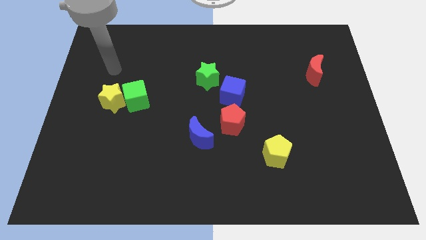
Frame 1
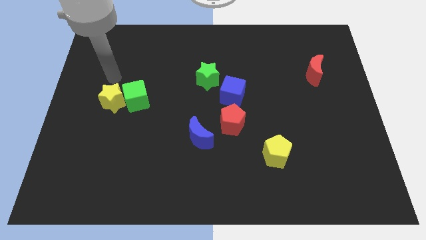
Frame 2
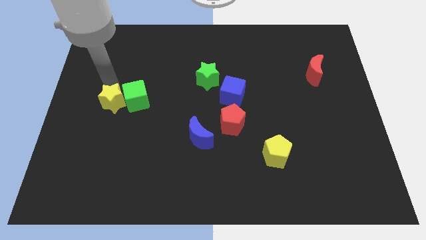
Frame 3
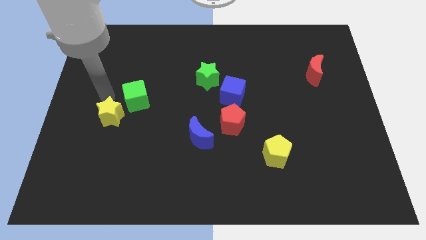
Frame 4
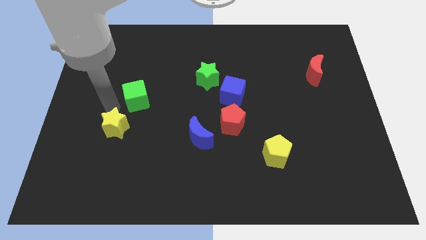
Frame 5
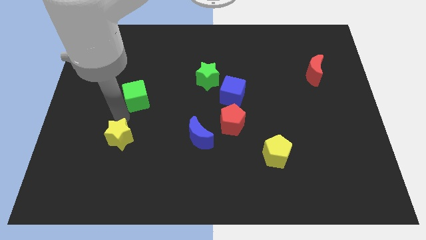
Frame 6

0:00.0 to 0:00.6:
pull the green cube apart from the yellow star

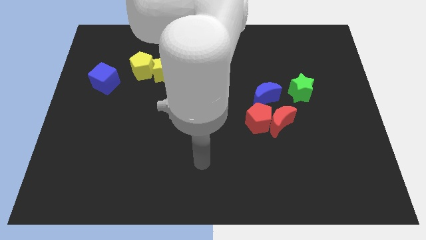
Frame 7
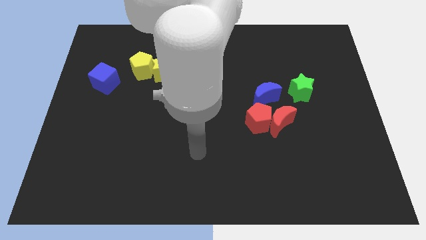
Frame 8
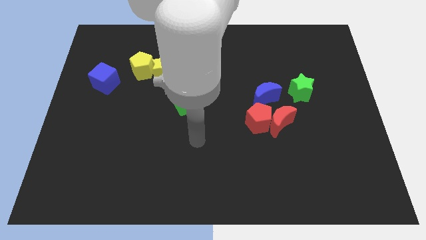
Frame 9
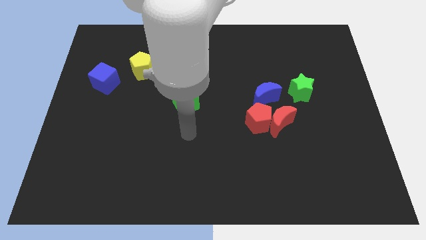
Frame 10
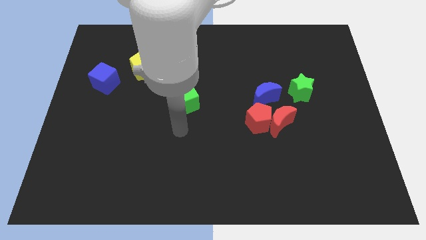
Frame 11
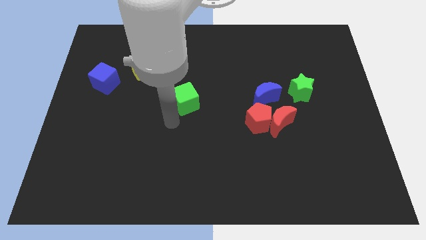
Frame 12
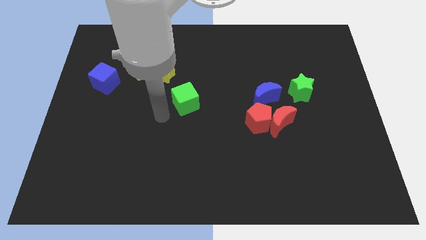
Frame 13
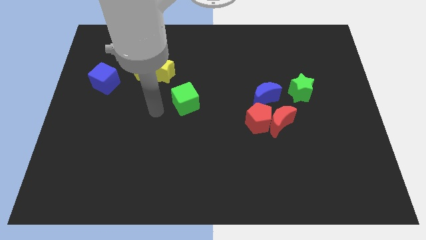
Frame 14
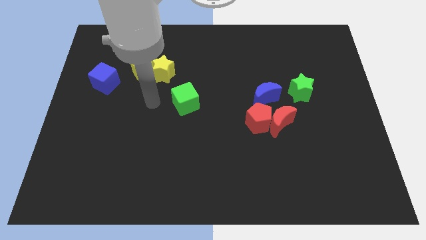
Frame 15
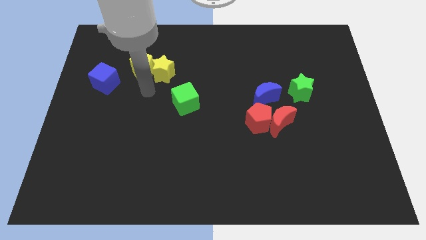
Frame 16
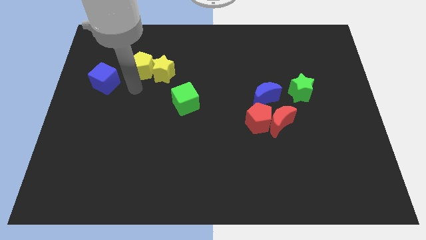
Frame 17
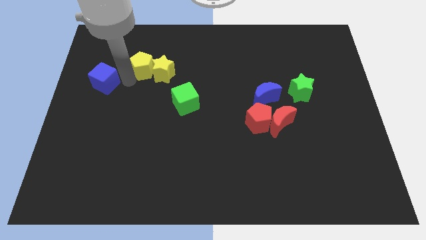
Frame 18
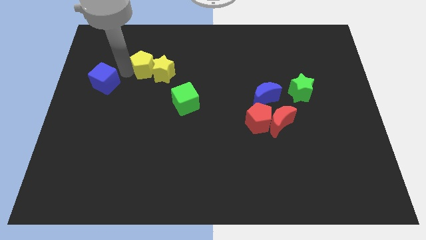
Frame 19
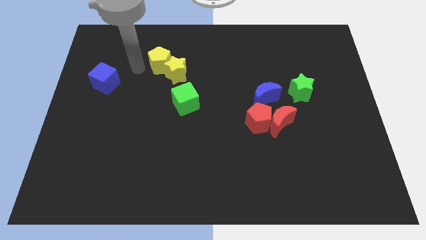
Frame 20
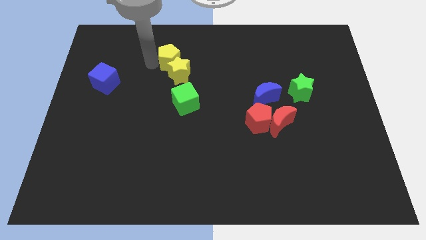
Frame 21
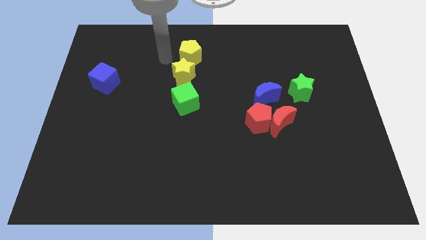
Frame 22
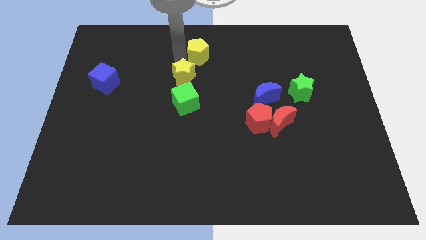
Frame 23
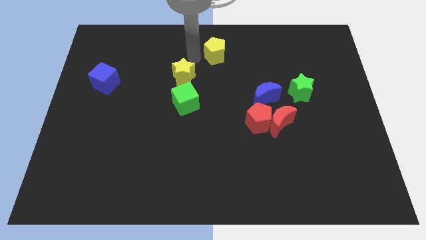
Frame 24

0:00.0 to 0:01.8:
separate the yellow star from the yellow pentagon

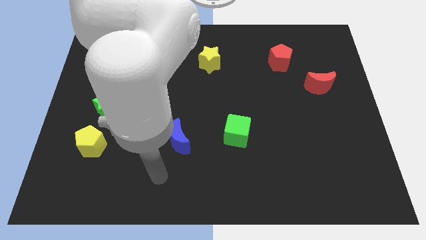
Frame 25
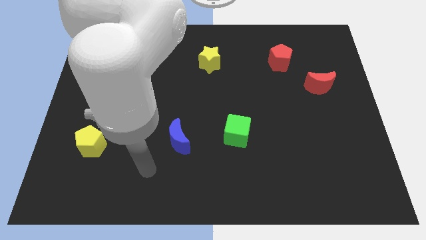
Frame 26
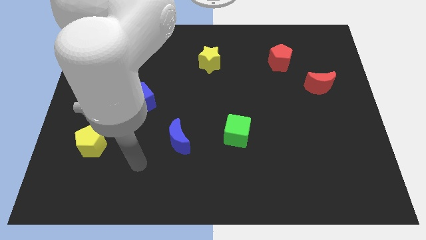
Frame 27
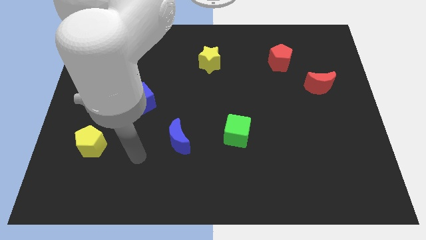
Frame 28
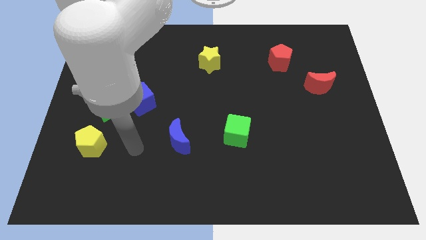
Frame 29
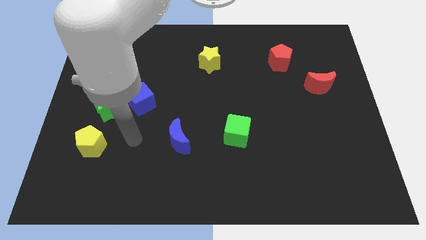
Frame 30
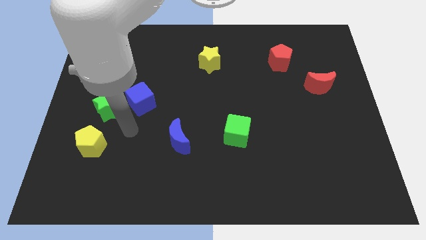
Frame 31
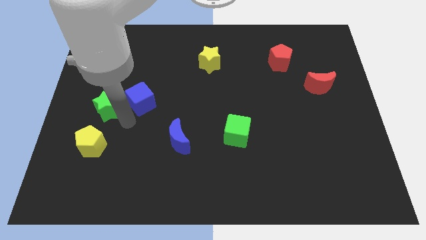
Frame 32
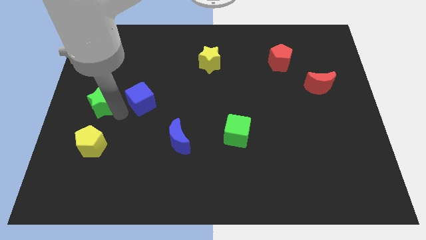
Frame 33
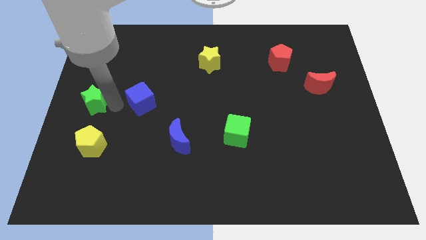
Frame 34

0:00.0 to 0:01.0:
pull the blue cube apart from the green star

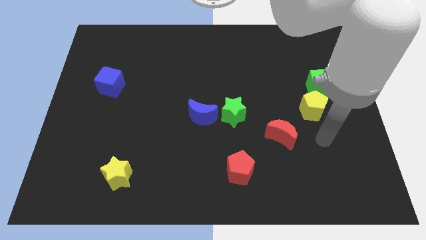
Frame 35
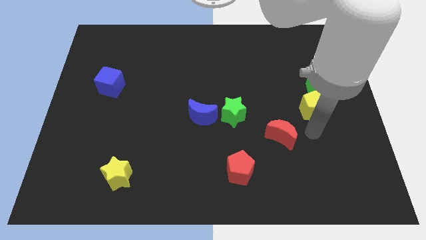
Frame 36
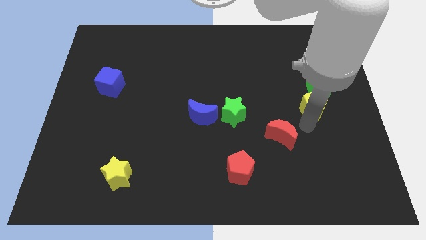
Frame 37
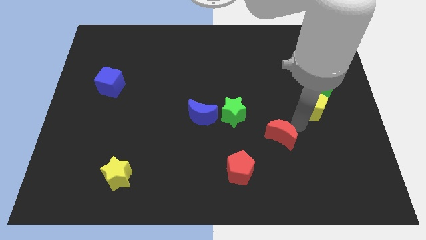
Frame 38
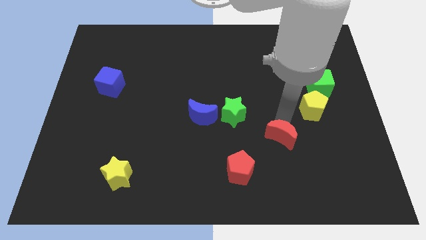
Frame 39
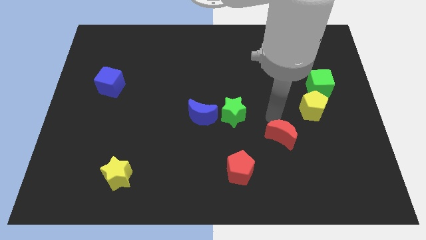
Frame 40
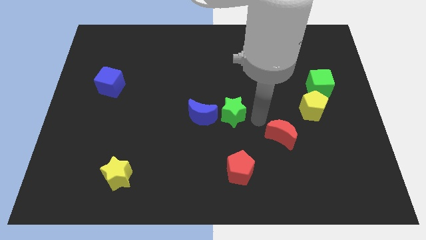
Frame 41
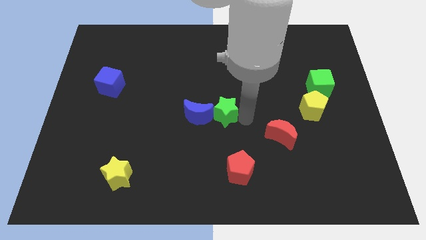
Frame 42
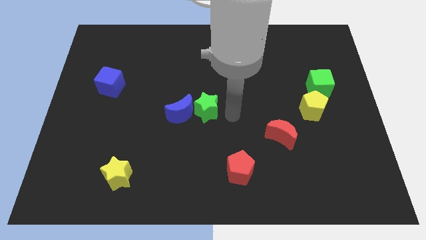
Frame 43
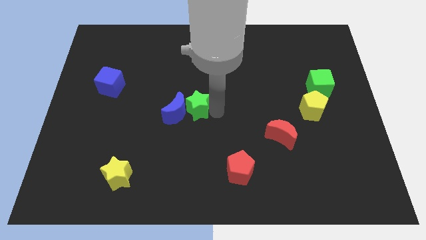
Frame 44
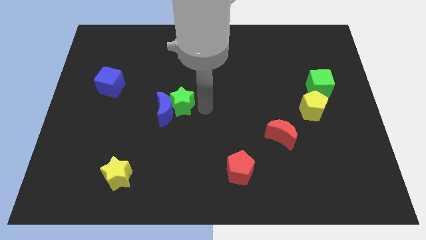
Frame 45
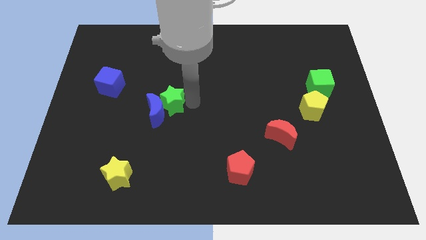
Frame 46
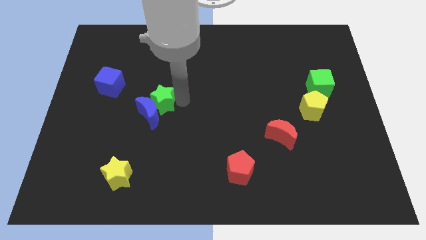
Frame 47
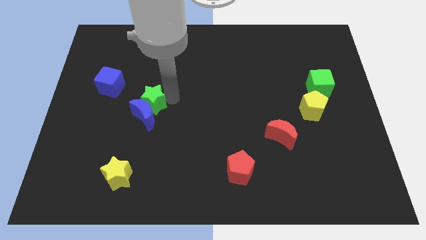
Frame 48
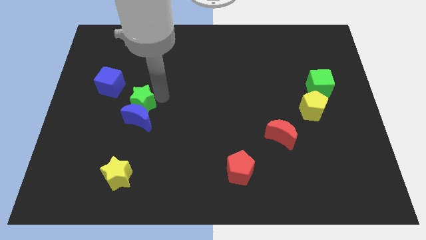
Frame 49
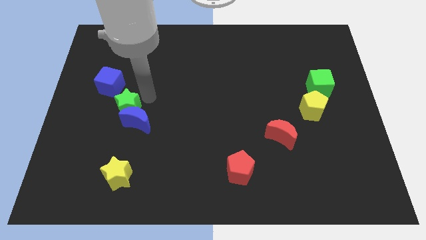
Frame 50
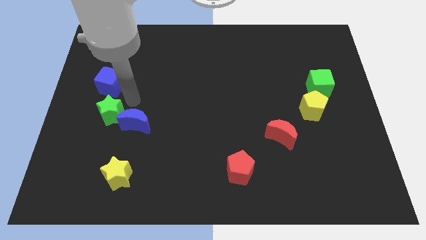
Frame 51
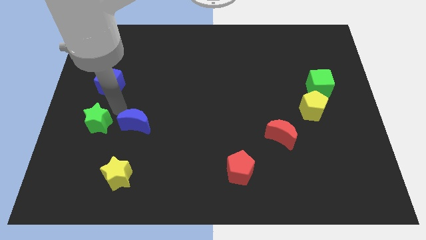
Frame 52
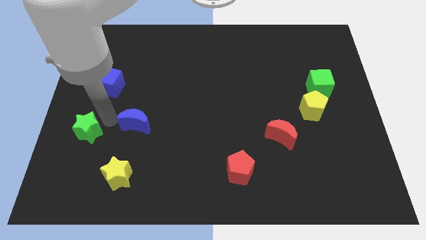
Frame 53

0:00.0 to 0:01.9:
pull the blue moon apart from the green star

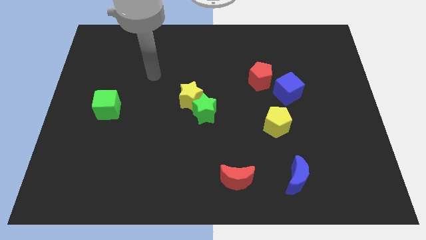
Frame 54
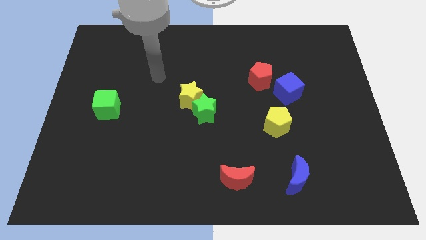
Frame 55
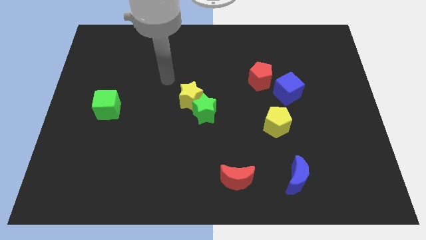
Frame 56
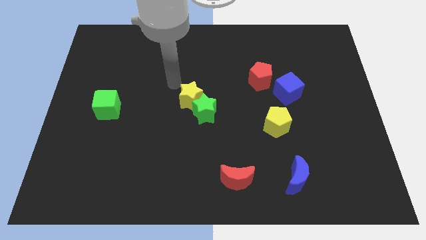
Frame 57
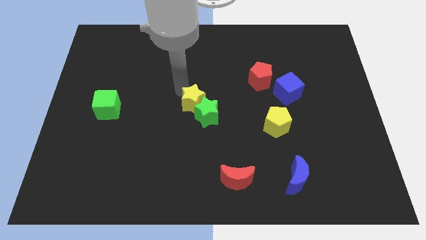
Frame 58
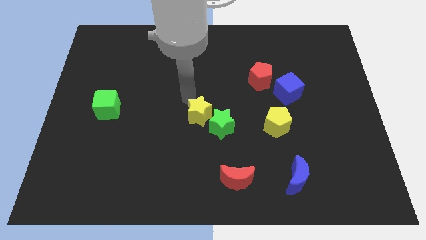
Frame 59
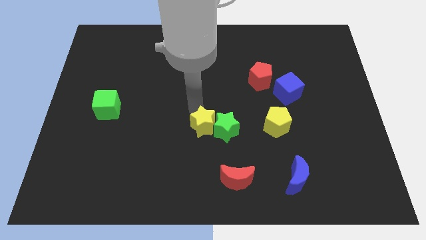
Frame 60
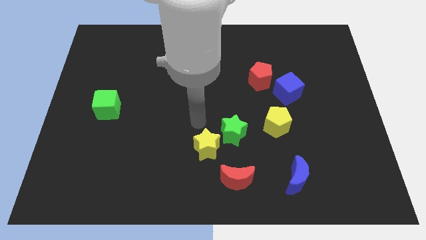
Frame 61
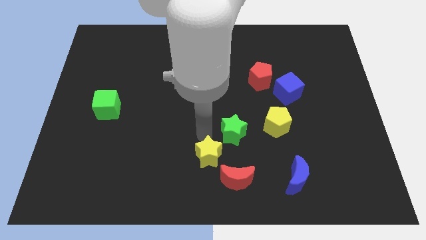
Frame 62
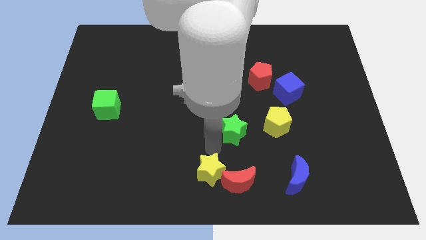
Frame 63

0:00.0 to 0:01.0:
separate the green star from the yellow star

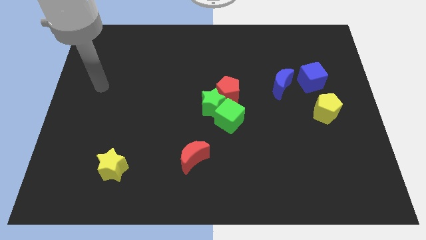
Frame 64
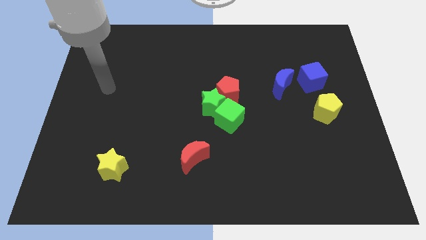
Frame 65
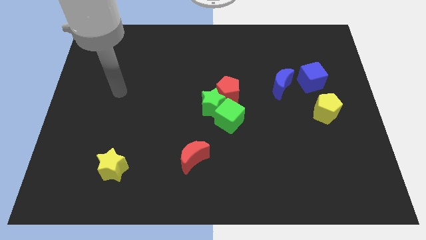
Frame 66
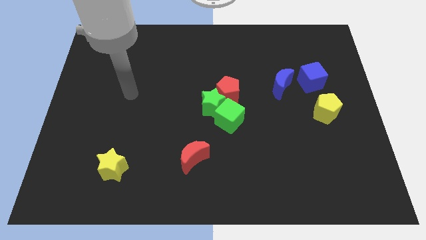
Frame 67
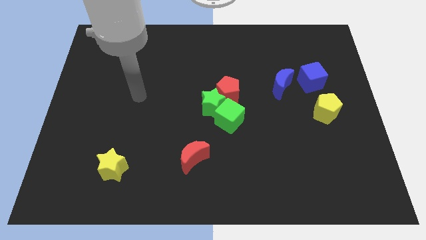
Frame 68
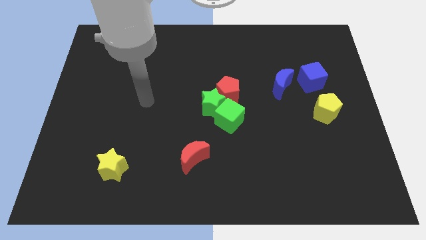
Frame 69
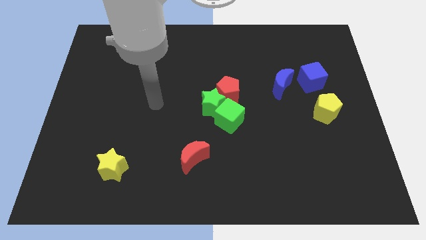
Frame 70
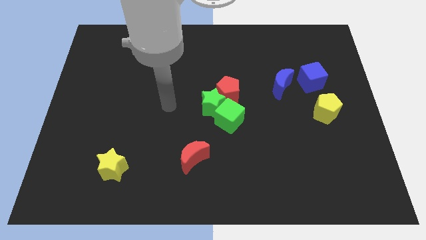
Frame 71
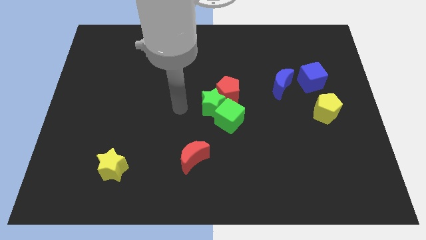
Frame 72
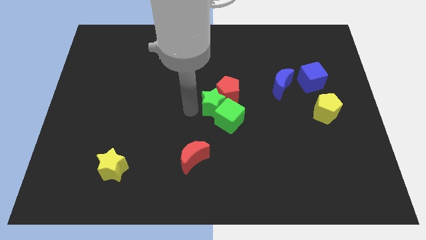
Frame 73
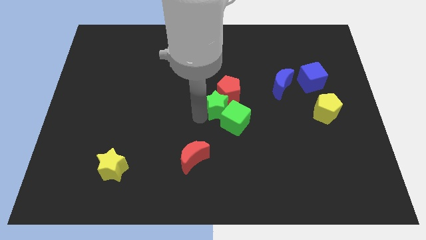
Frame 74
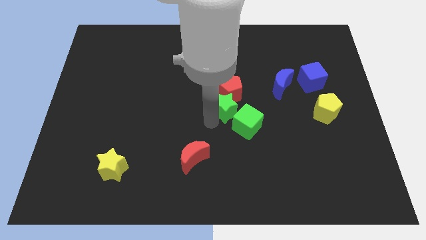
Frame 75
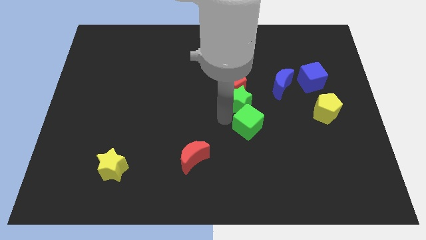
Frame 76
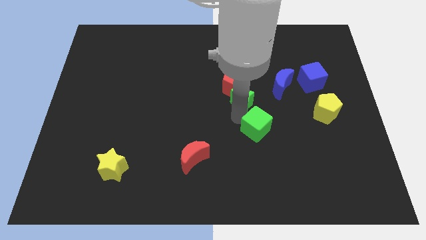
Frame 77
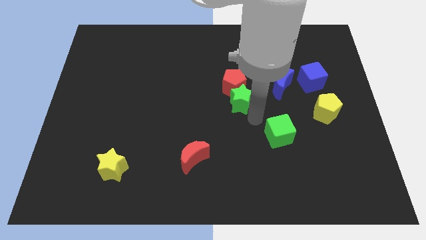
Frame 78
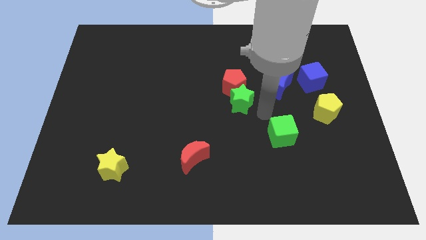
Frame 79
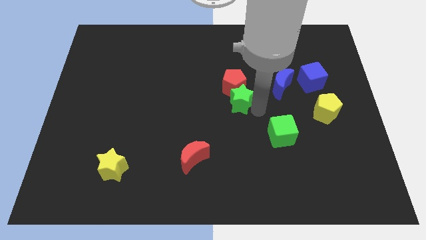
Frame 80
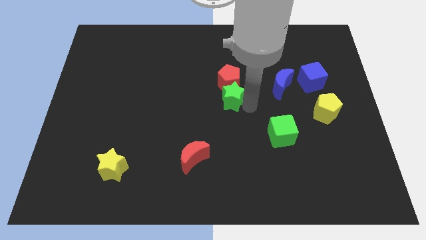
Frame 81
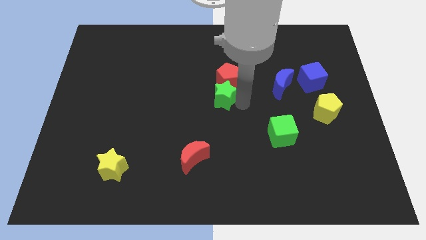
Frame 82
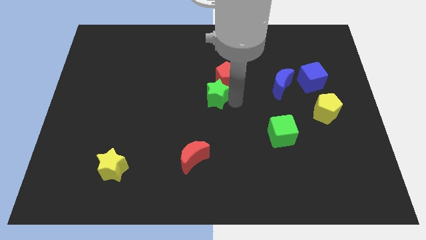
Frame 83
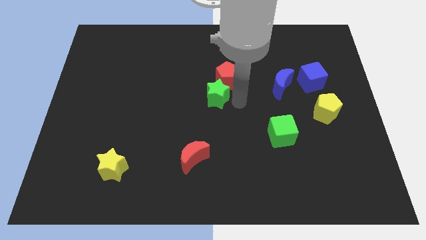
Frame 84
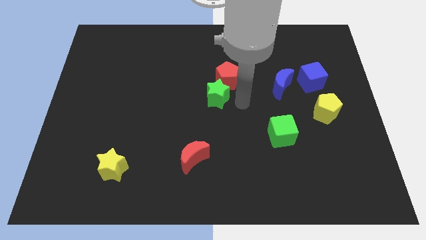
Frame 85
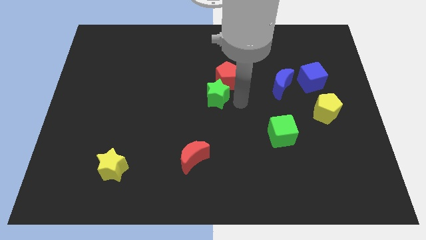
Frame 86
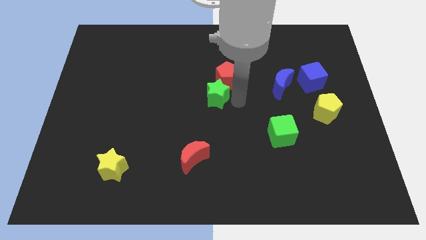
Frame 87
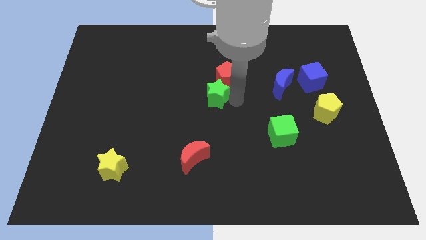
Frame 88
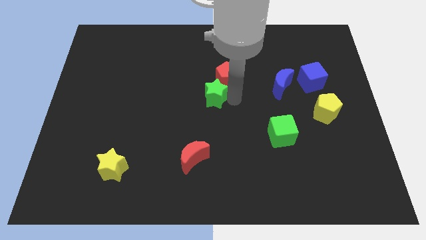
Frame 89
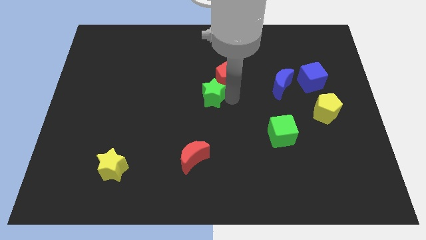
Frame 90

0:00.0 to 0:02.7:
separate the green star from the red pentagon and green cube

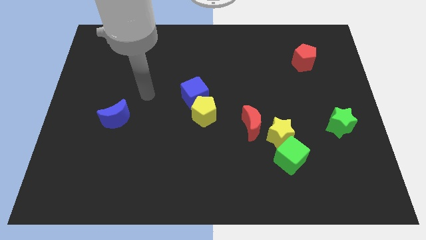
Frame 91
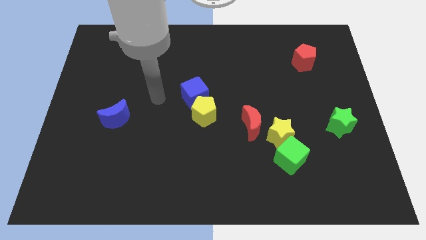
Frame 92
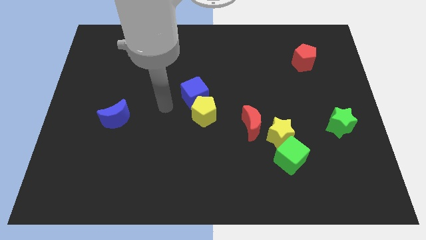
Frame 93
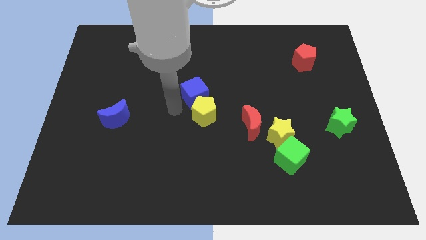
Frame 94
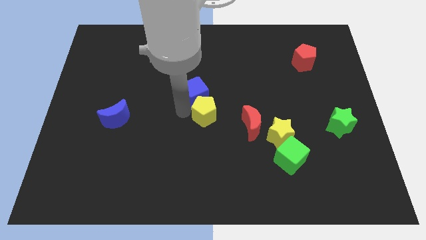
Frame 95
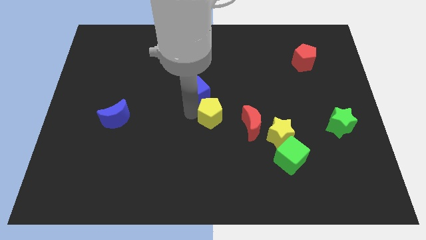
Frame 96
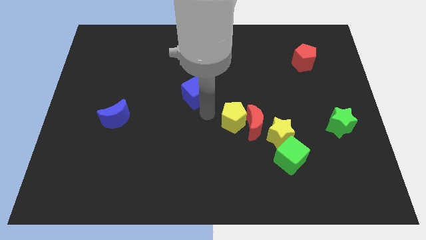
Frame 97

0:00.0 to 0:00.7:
separate the blue cube from the yellow pentagon
